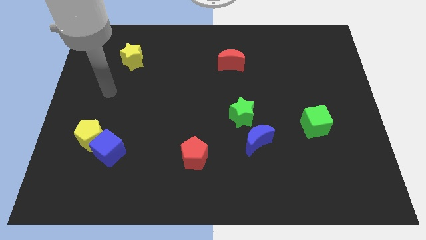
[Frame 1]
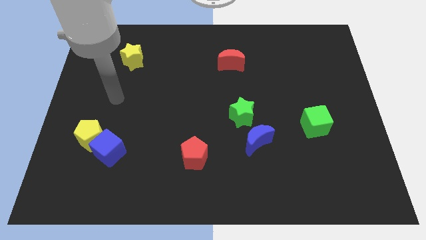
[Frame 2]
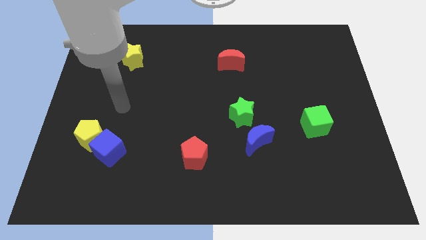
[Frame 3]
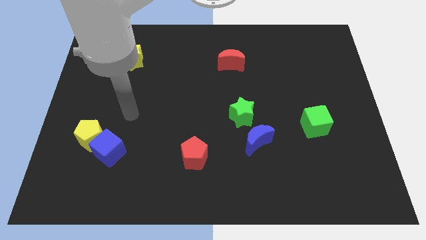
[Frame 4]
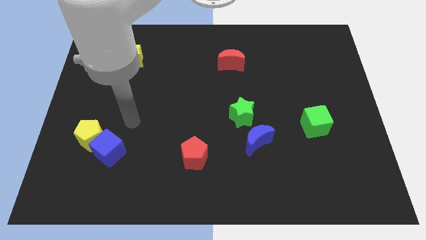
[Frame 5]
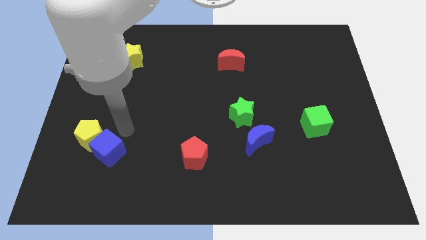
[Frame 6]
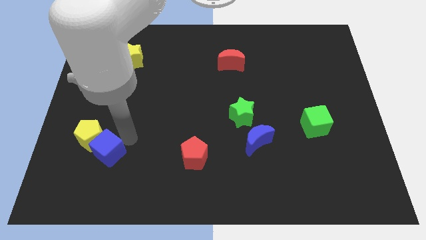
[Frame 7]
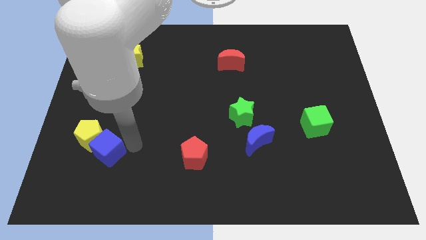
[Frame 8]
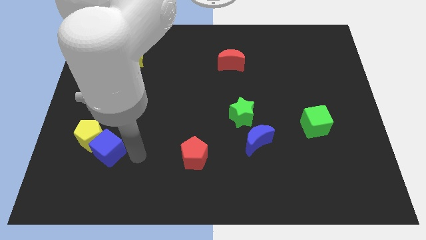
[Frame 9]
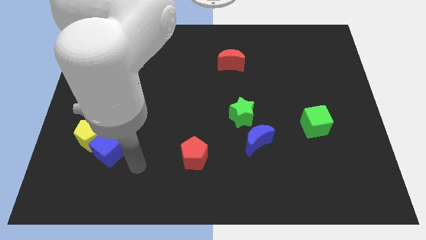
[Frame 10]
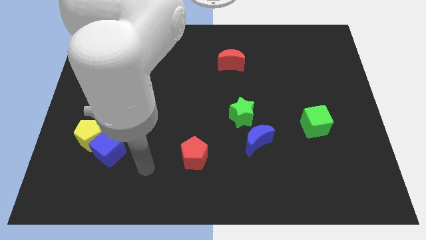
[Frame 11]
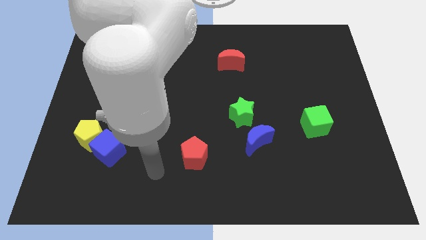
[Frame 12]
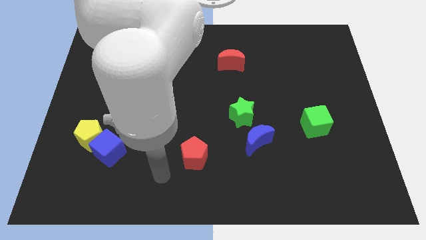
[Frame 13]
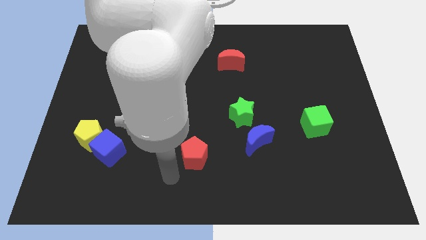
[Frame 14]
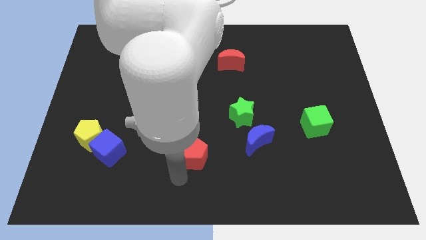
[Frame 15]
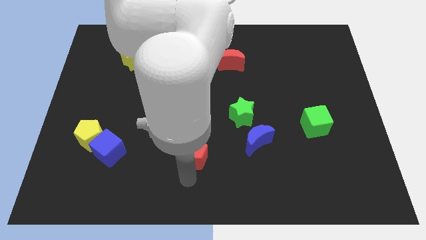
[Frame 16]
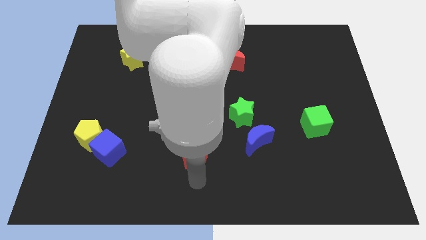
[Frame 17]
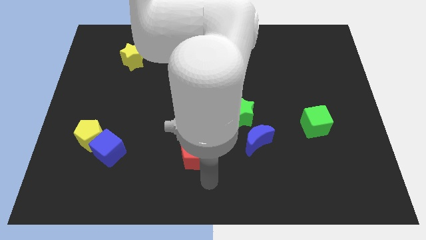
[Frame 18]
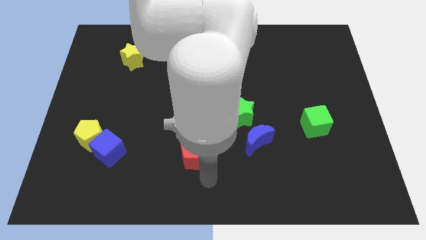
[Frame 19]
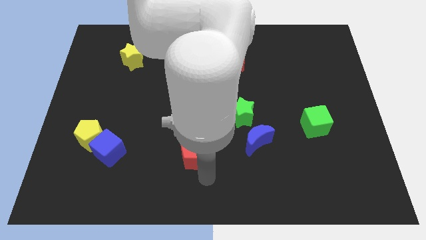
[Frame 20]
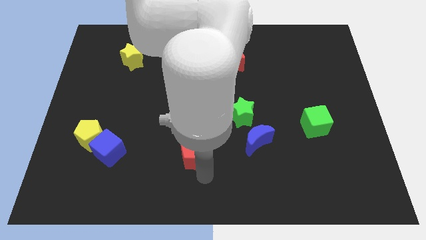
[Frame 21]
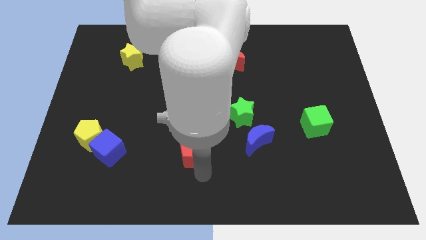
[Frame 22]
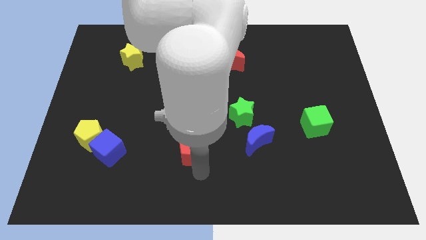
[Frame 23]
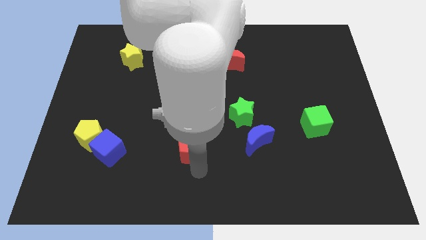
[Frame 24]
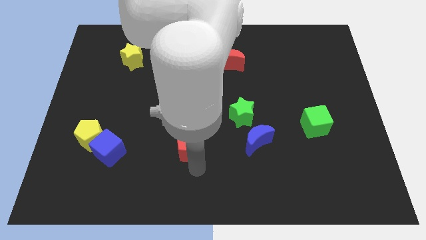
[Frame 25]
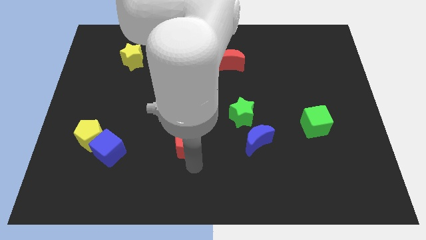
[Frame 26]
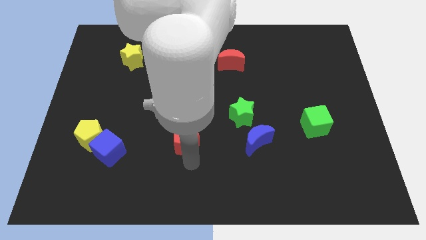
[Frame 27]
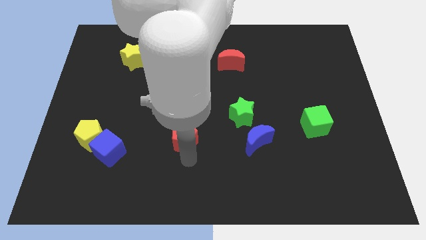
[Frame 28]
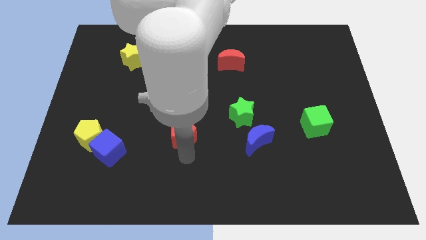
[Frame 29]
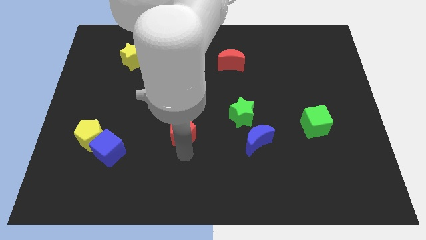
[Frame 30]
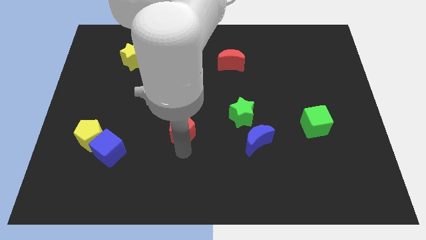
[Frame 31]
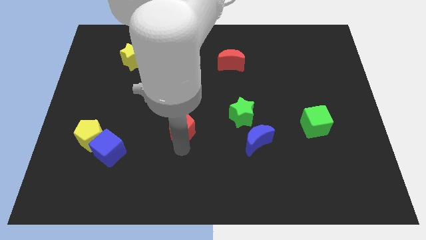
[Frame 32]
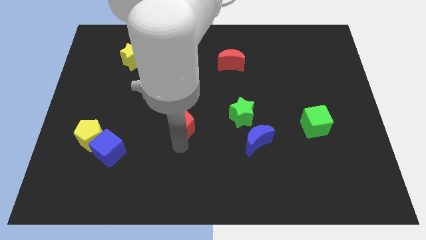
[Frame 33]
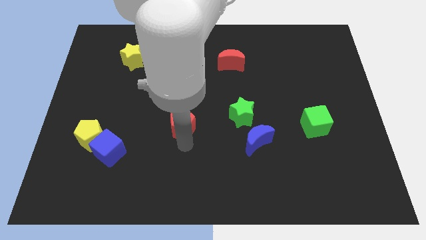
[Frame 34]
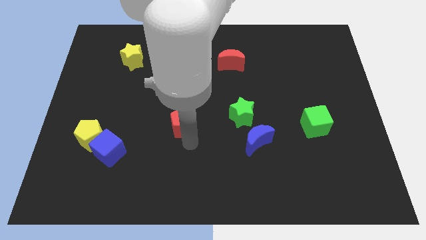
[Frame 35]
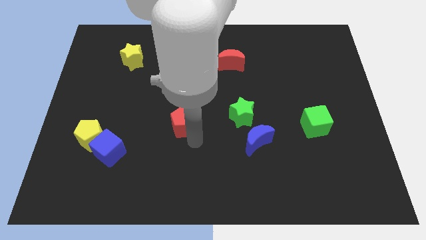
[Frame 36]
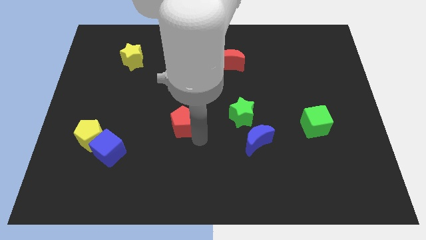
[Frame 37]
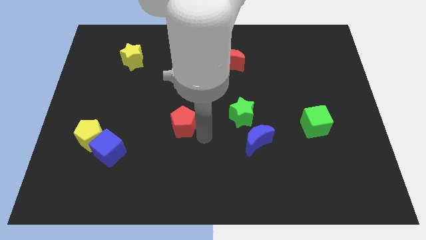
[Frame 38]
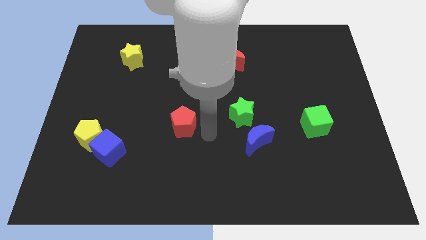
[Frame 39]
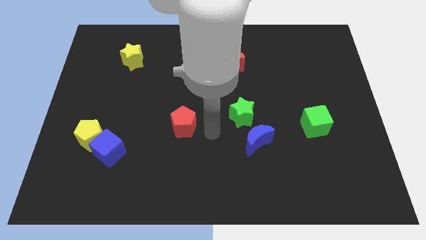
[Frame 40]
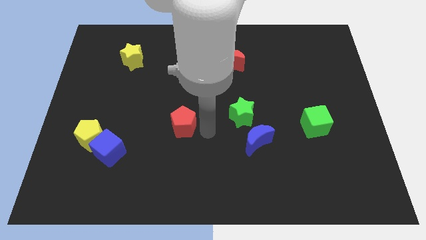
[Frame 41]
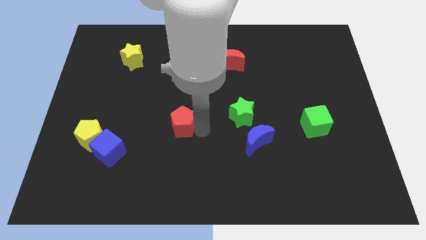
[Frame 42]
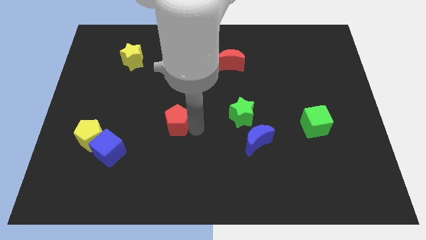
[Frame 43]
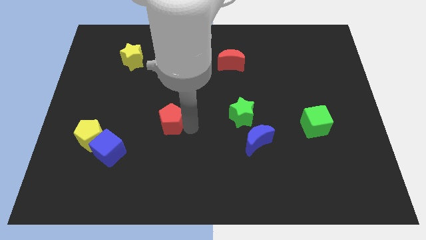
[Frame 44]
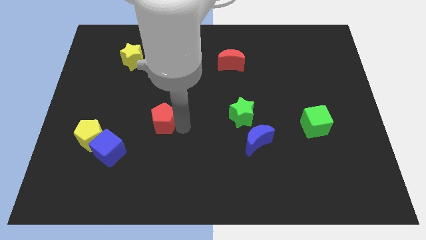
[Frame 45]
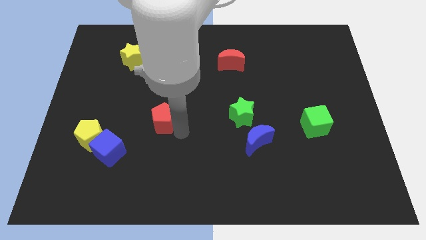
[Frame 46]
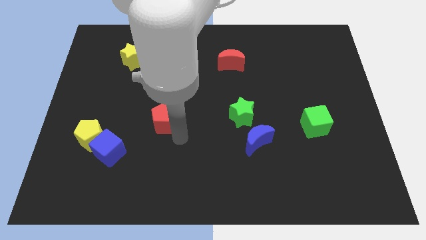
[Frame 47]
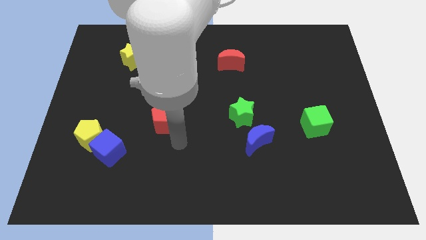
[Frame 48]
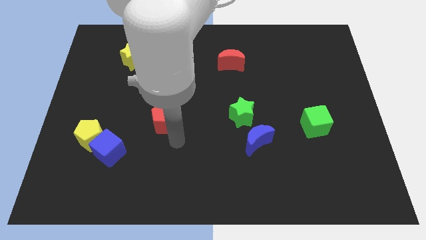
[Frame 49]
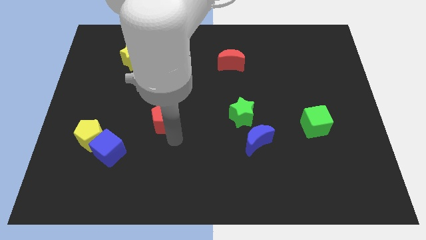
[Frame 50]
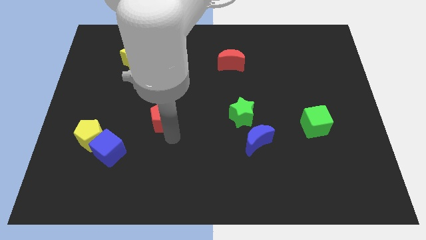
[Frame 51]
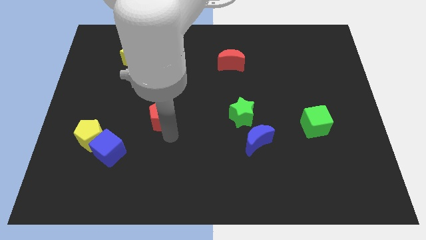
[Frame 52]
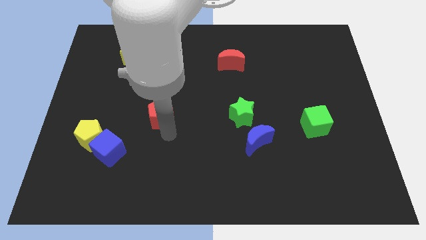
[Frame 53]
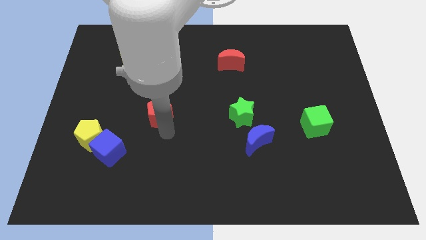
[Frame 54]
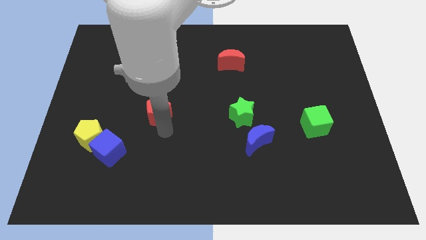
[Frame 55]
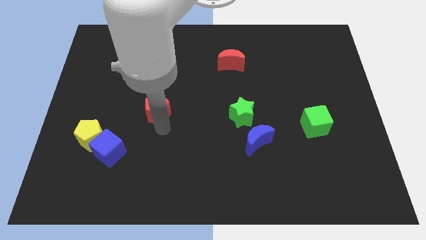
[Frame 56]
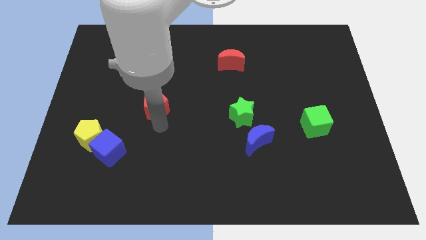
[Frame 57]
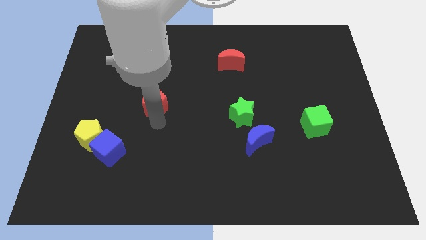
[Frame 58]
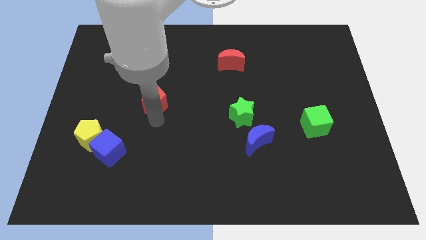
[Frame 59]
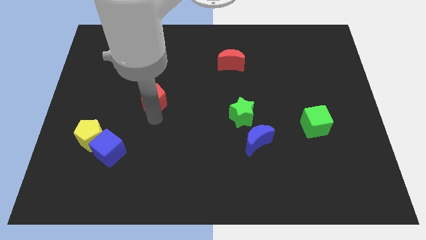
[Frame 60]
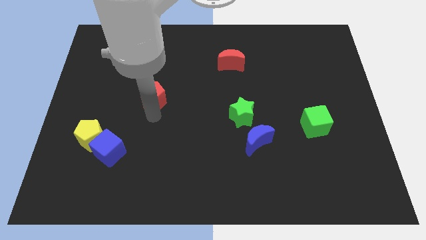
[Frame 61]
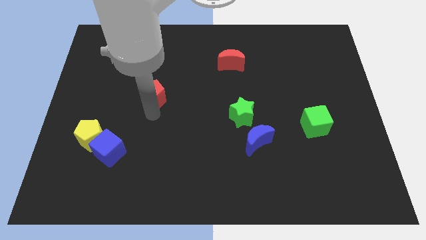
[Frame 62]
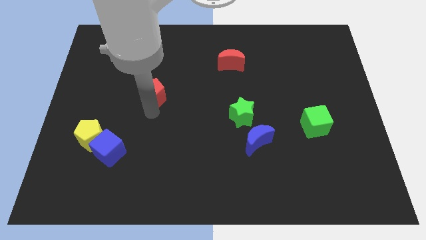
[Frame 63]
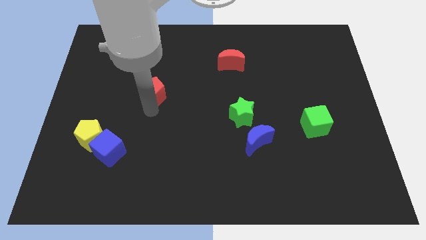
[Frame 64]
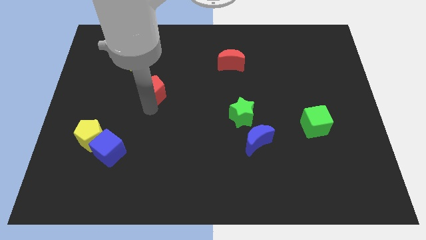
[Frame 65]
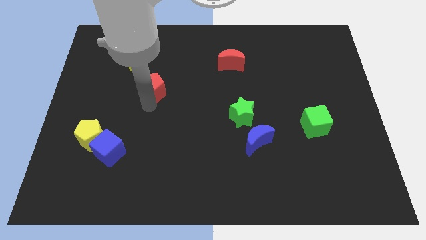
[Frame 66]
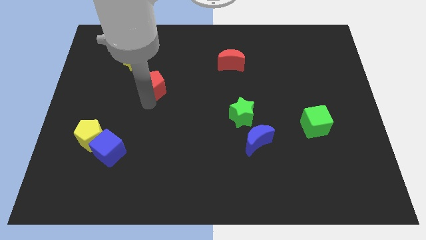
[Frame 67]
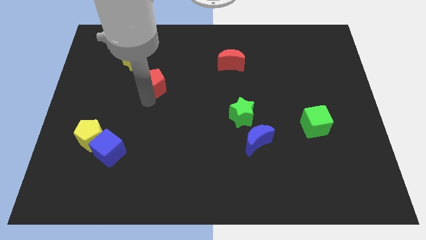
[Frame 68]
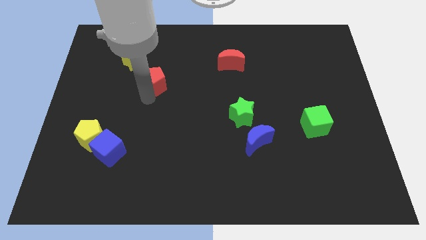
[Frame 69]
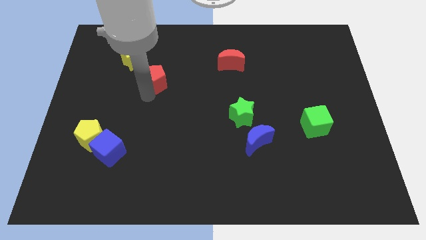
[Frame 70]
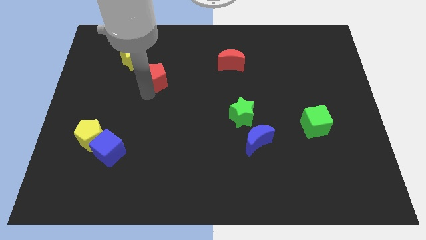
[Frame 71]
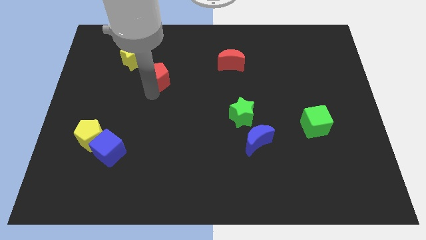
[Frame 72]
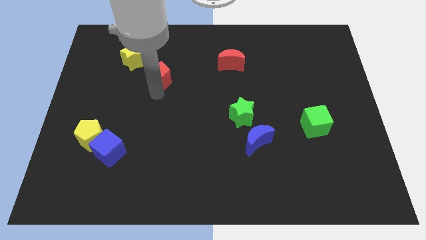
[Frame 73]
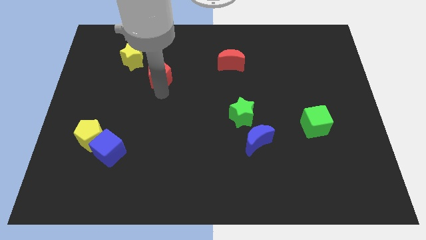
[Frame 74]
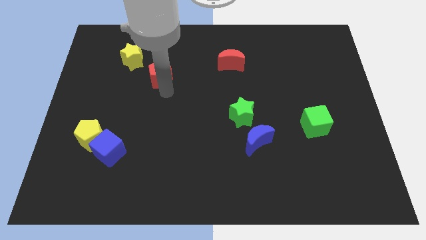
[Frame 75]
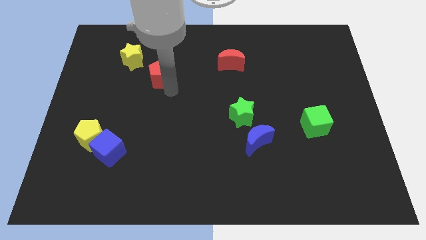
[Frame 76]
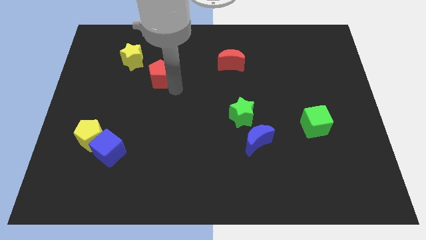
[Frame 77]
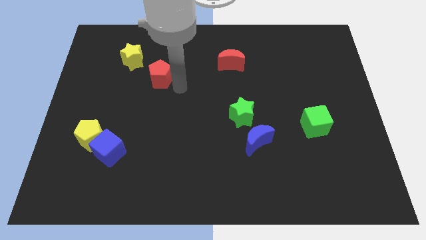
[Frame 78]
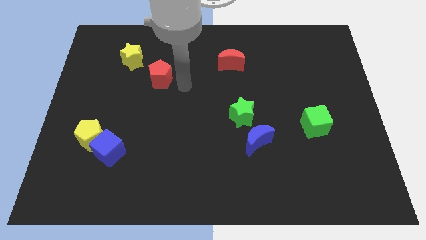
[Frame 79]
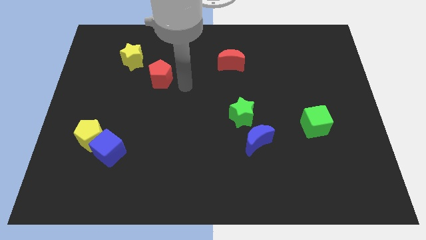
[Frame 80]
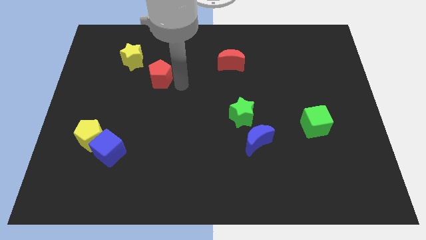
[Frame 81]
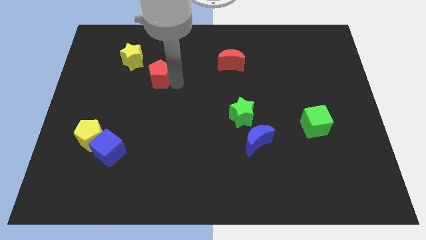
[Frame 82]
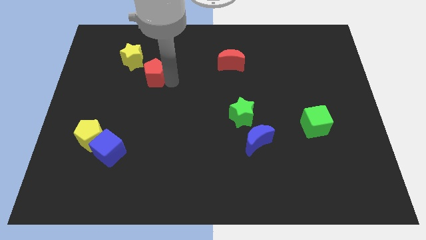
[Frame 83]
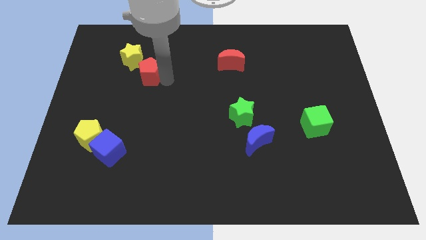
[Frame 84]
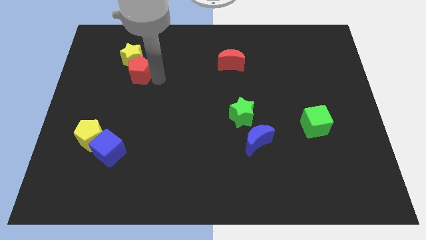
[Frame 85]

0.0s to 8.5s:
slide the red pentagon close to the yellow star
